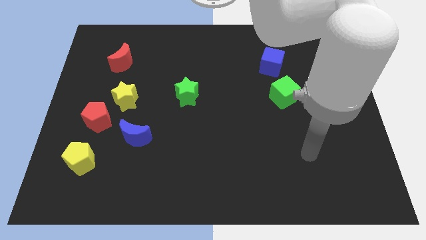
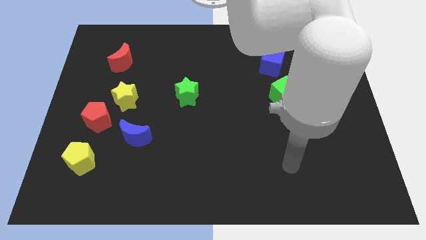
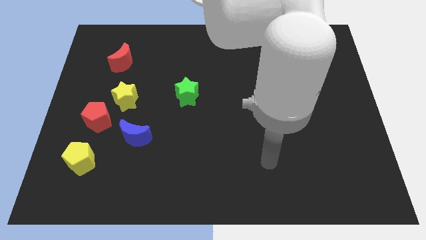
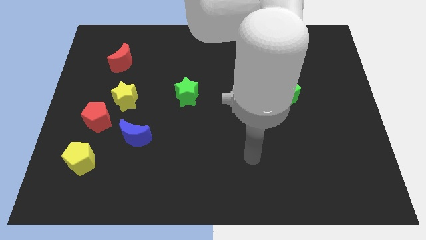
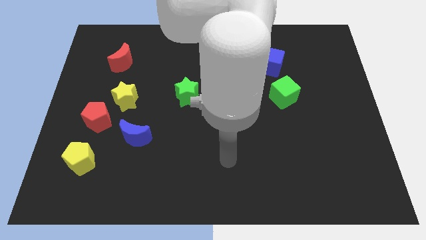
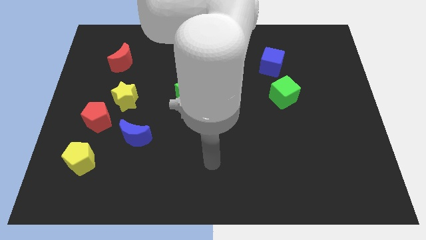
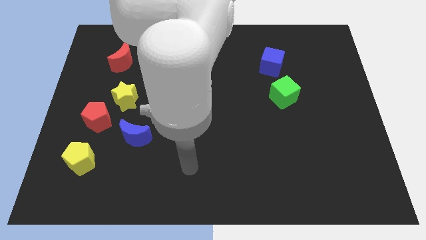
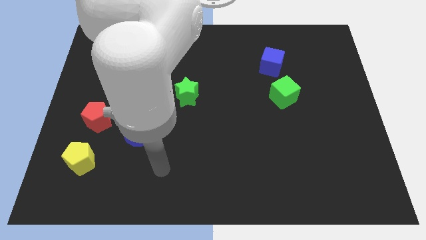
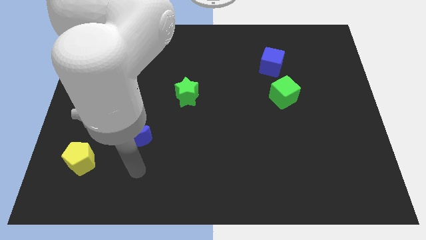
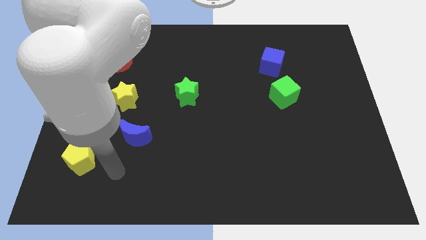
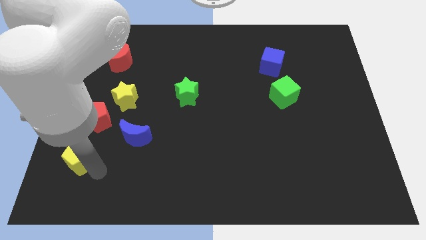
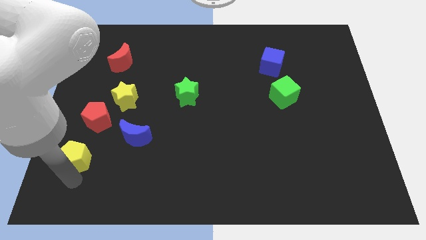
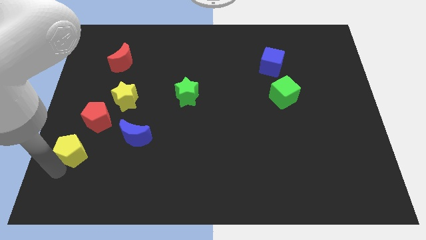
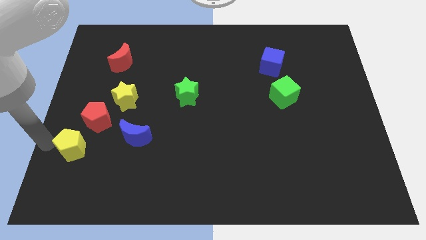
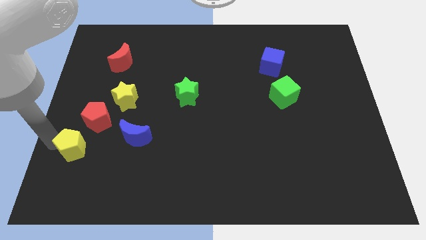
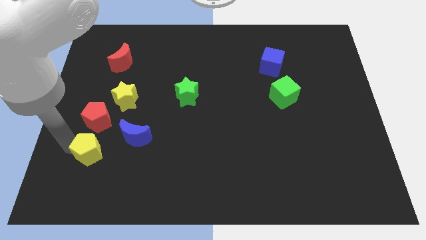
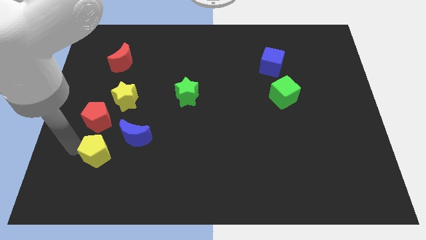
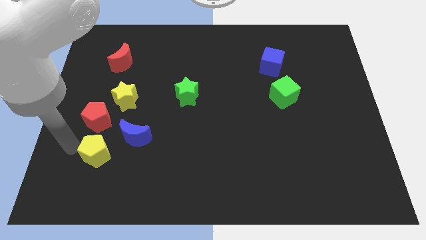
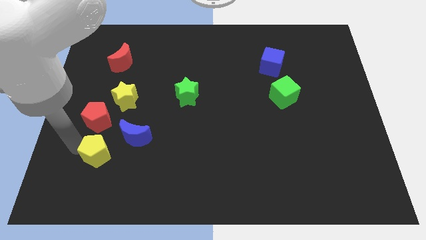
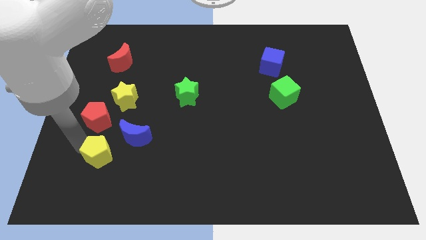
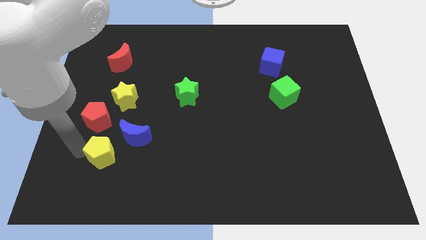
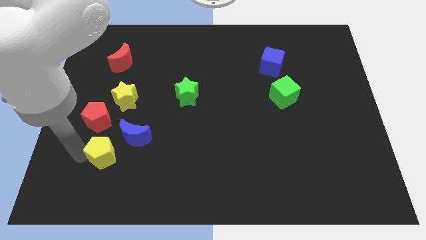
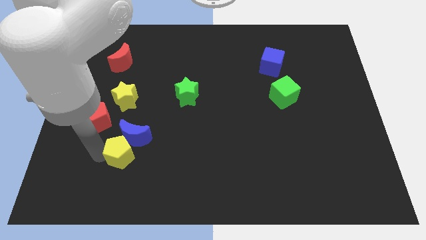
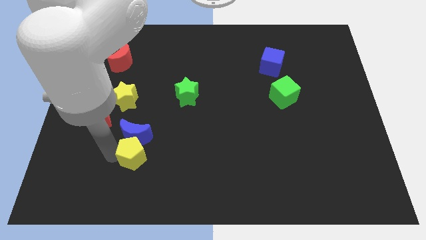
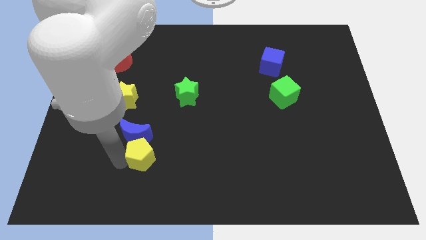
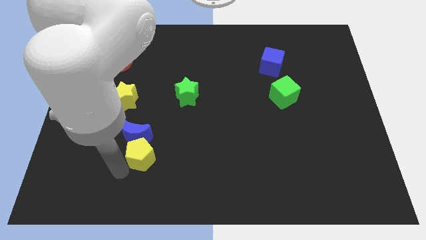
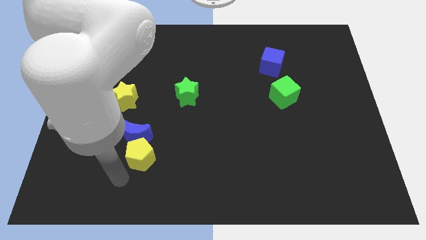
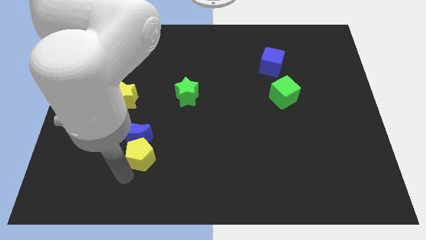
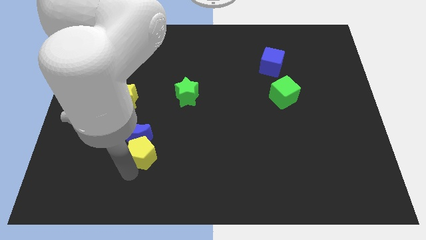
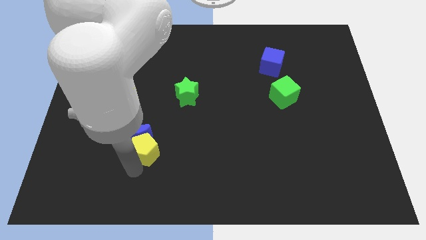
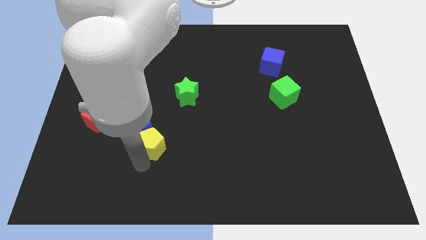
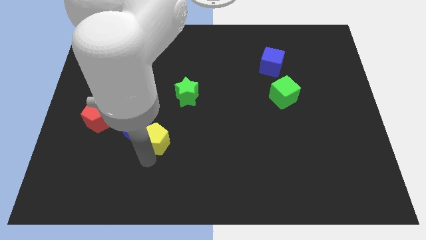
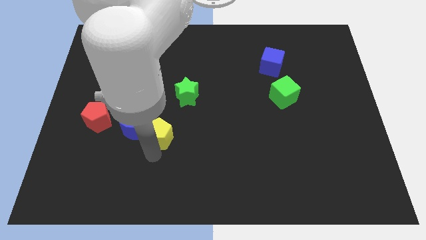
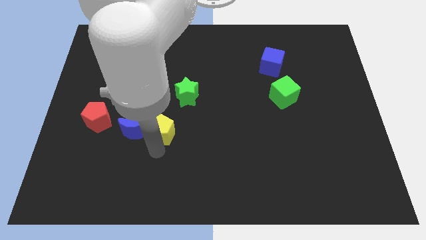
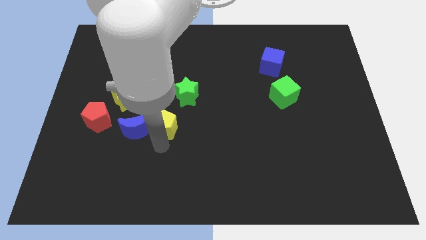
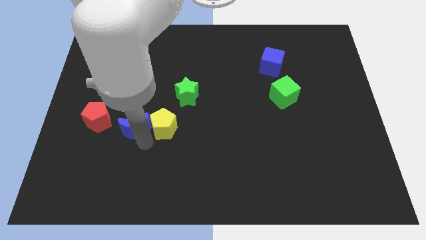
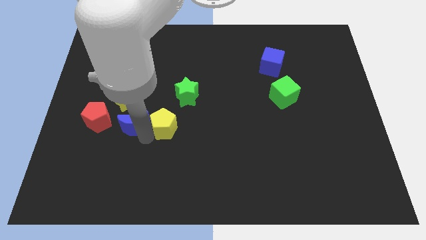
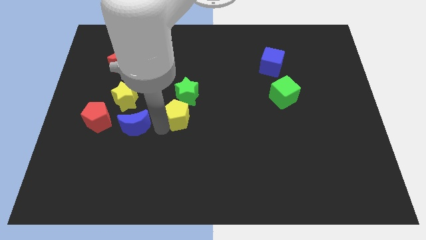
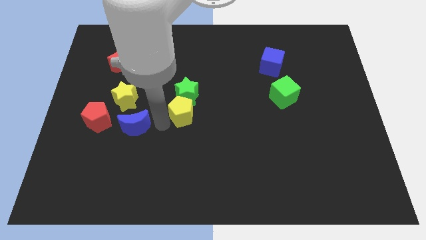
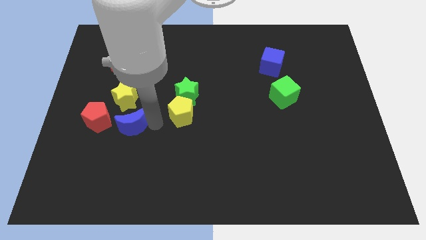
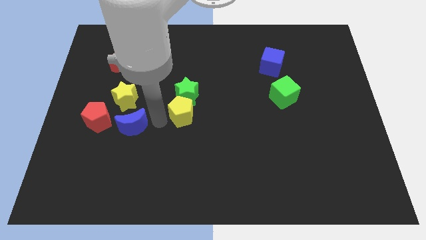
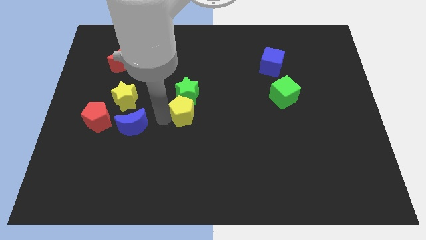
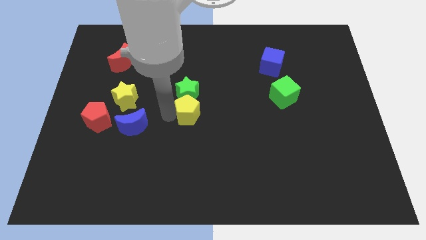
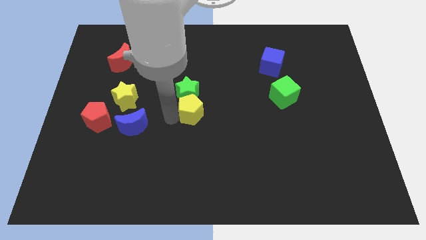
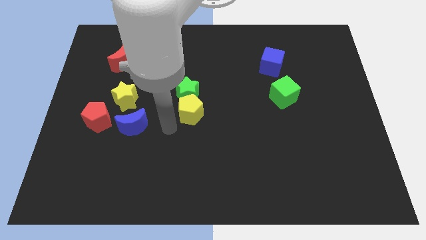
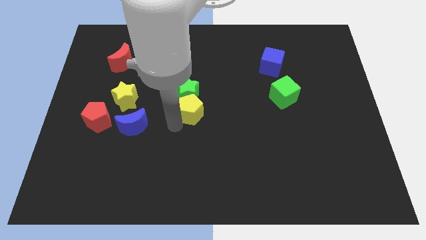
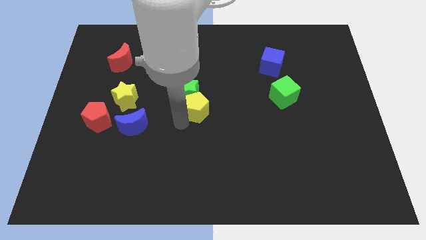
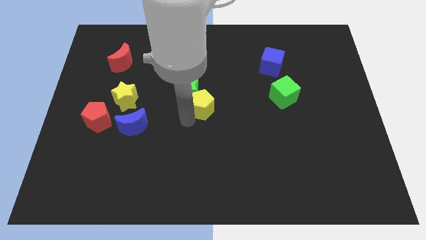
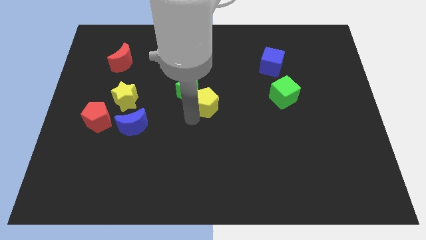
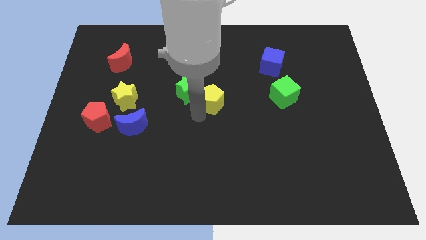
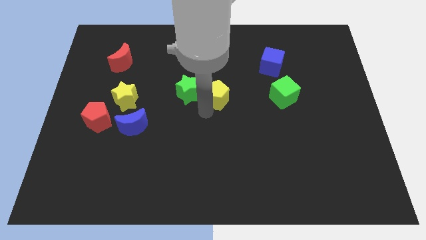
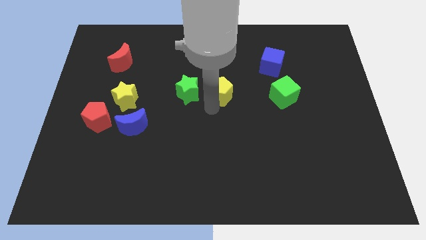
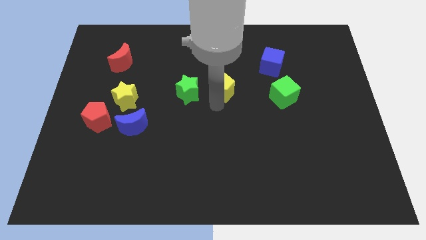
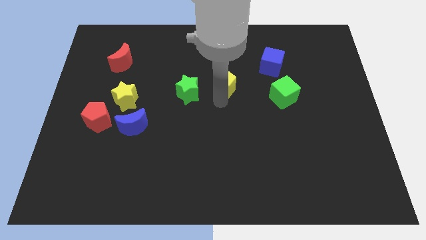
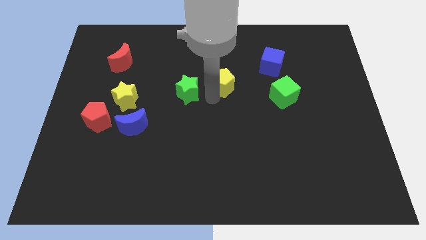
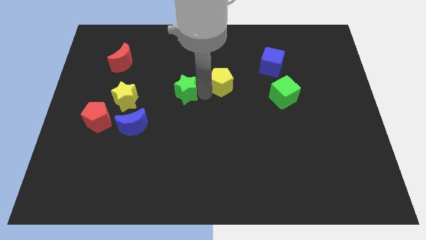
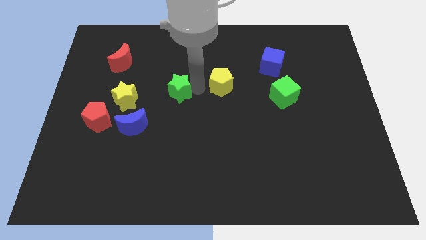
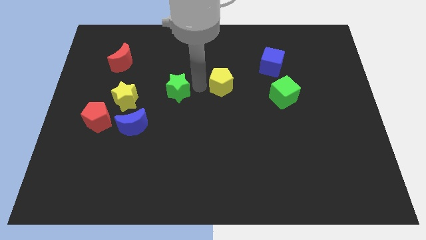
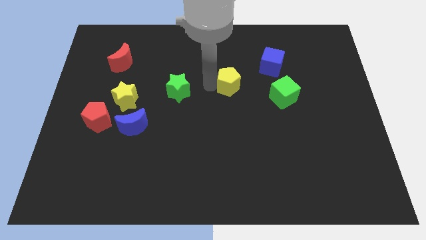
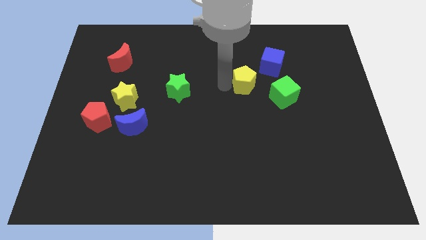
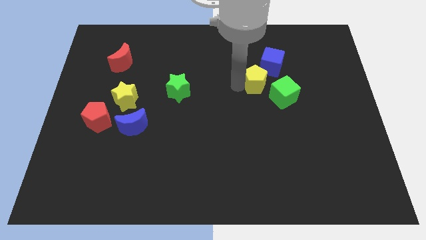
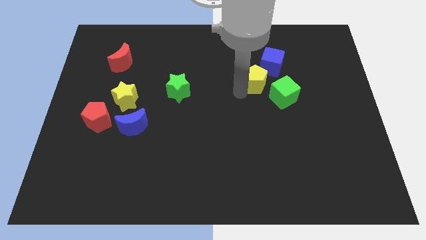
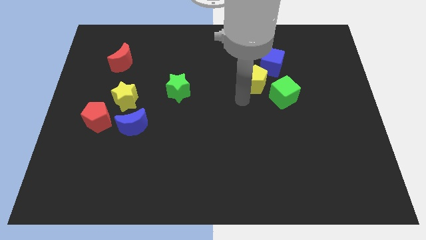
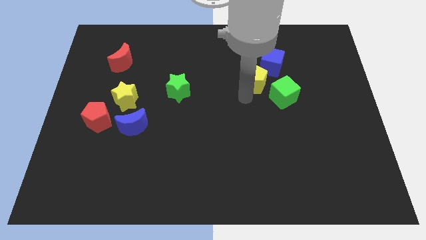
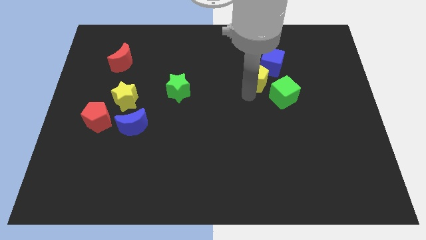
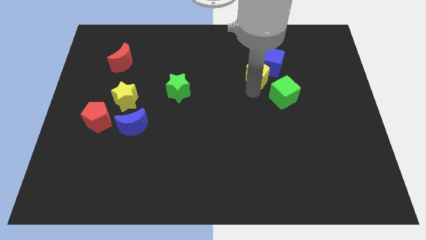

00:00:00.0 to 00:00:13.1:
push the yellow pentagon close to the blue cube

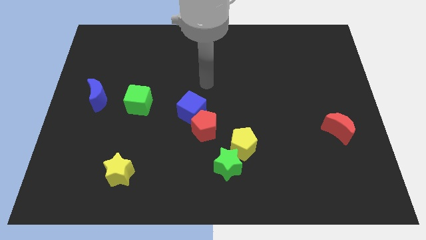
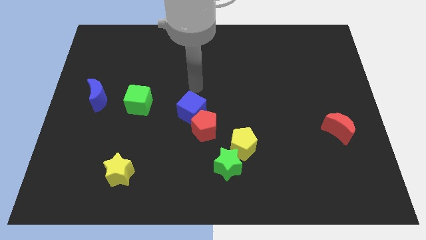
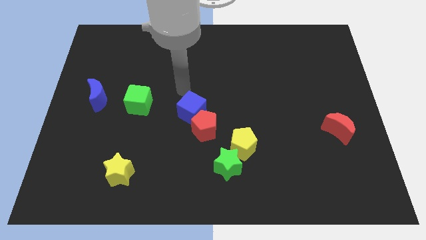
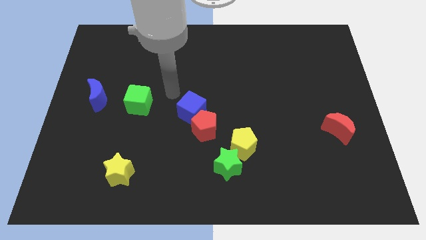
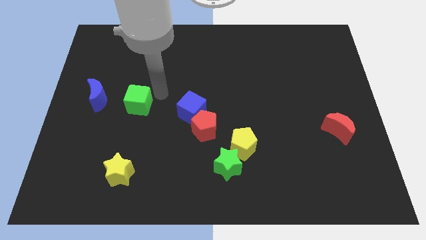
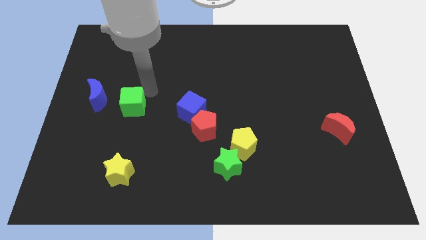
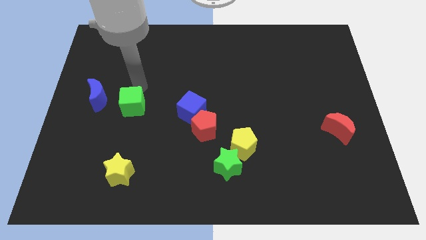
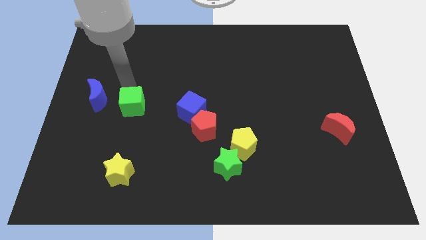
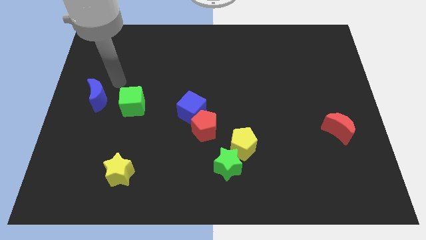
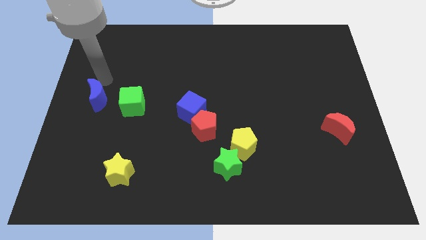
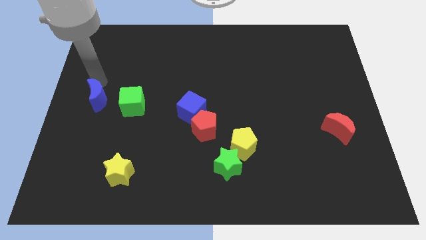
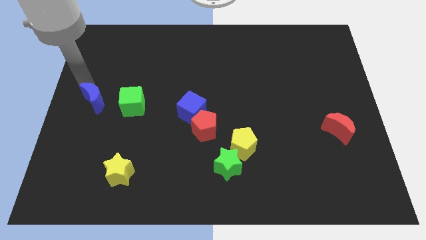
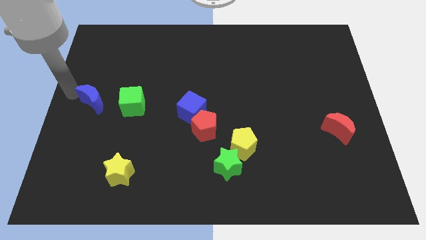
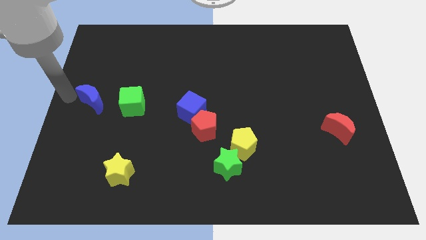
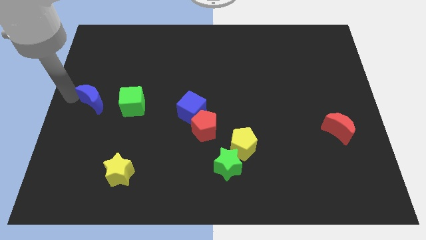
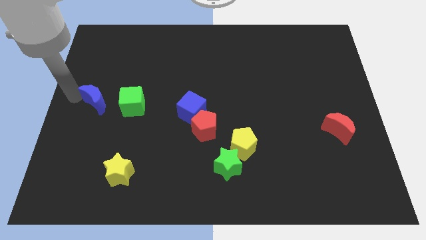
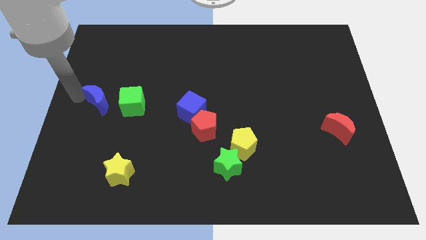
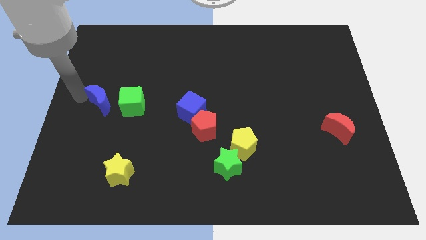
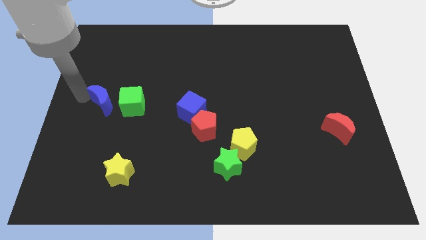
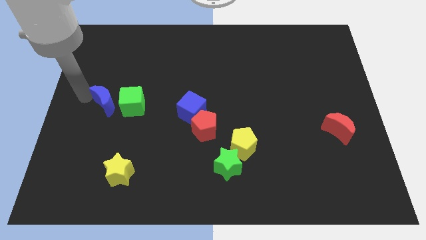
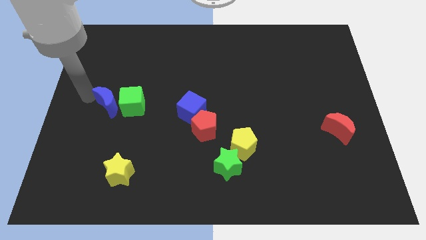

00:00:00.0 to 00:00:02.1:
slide the blue moon next to the green cube
